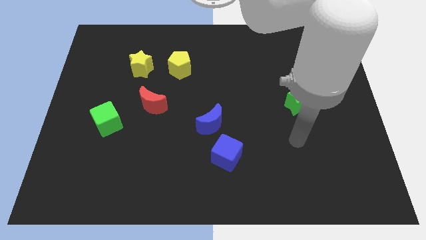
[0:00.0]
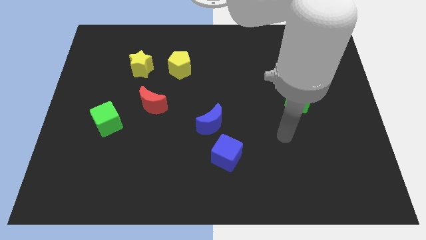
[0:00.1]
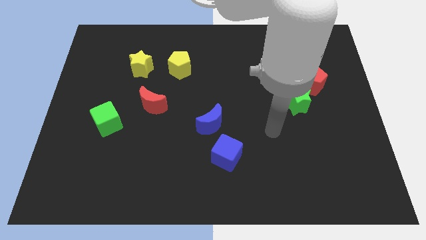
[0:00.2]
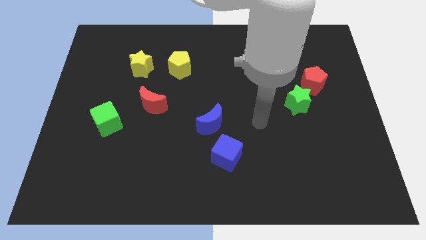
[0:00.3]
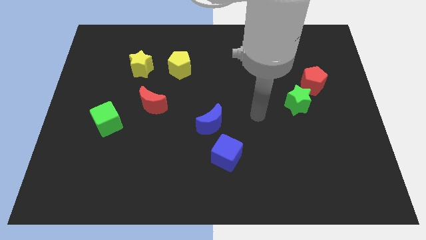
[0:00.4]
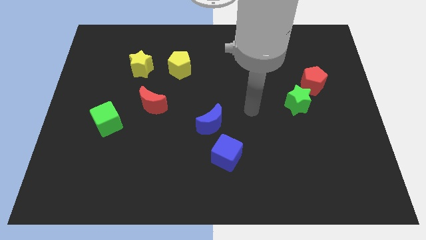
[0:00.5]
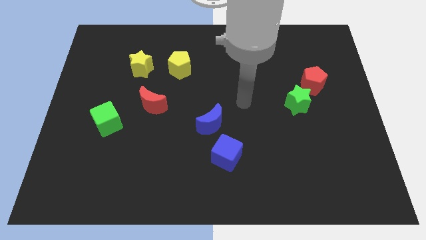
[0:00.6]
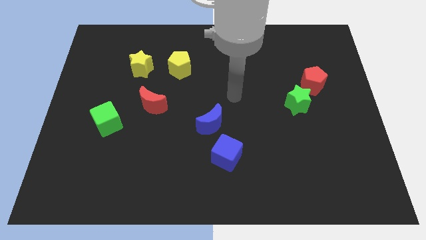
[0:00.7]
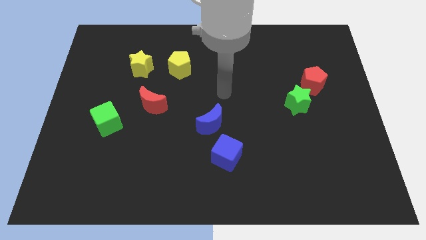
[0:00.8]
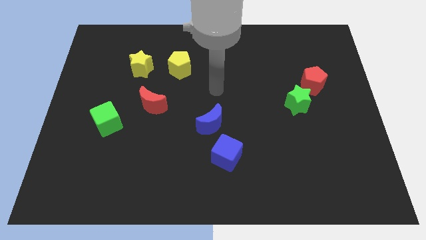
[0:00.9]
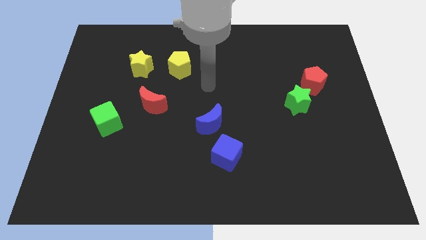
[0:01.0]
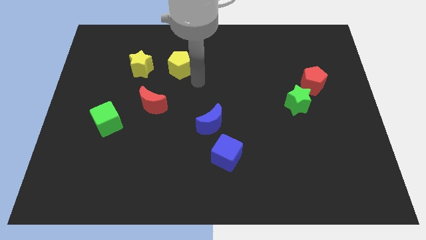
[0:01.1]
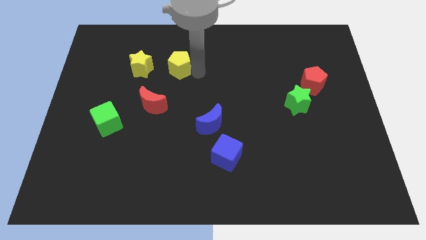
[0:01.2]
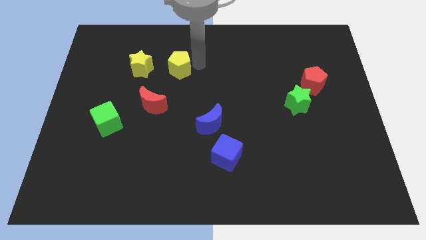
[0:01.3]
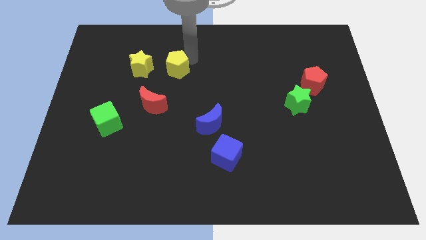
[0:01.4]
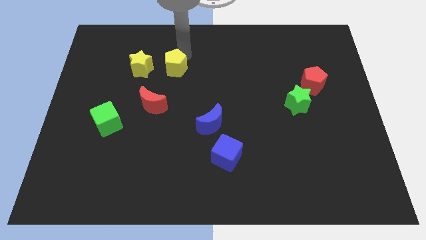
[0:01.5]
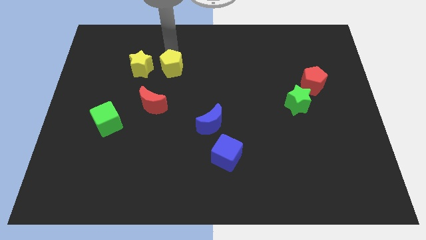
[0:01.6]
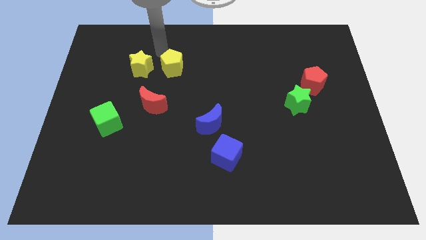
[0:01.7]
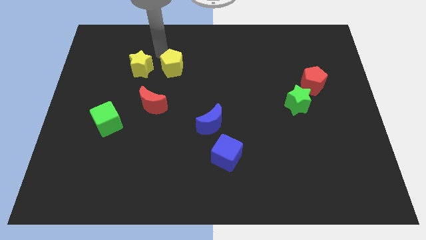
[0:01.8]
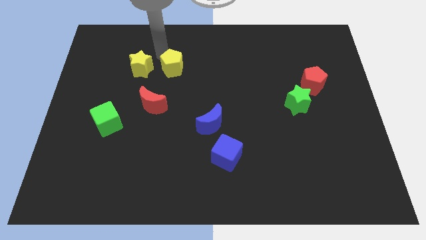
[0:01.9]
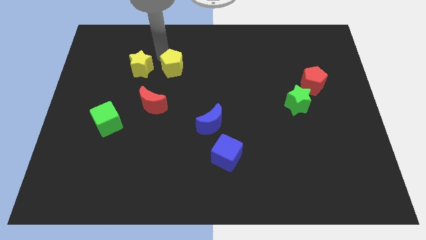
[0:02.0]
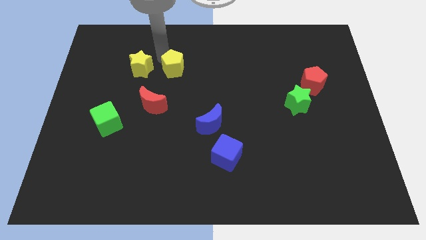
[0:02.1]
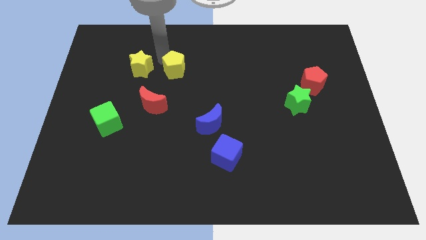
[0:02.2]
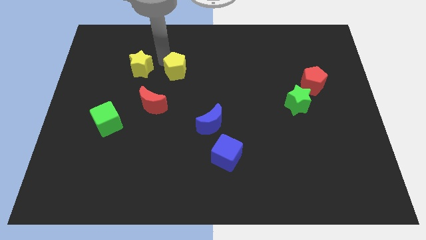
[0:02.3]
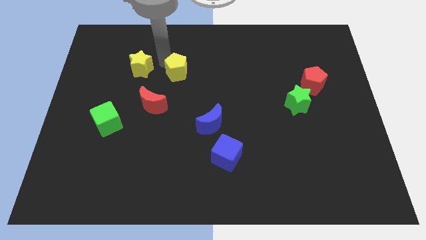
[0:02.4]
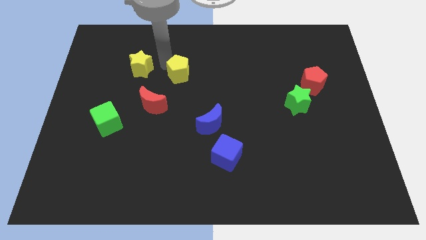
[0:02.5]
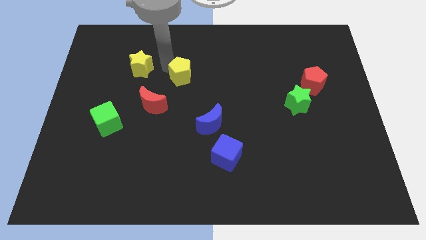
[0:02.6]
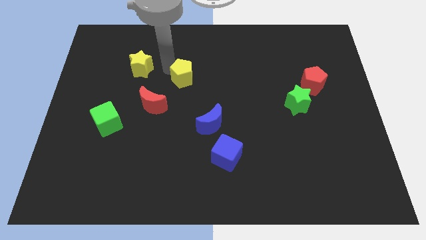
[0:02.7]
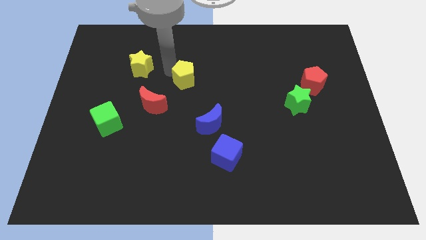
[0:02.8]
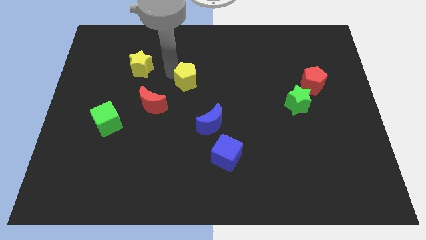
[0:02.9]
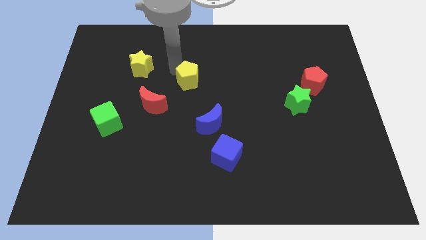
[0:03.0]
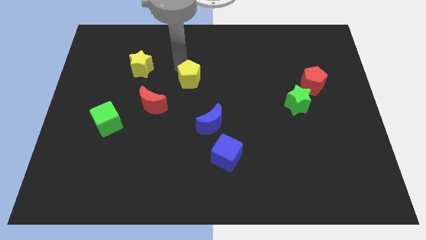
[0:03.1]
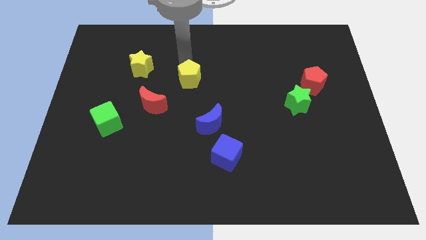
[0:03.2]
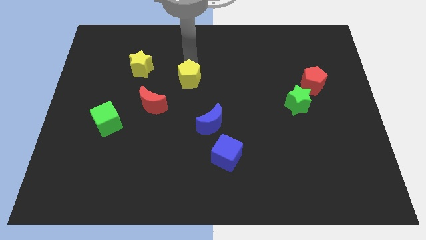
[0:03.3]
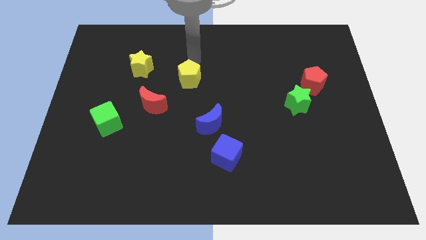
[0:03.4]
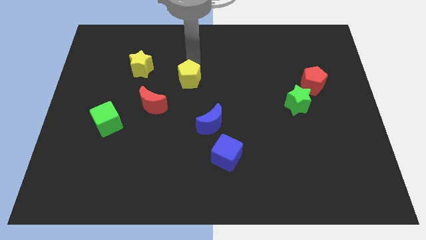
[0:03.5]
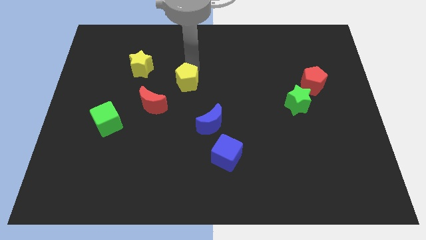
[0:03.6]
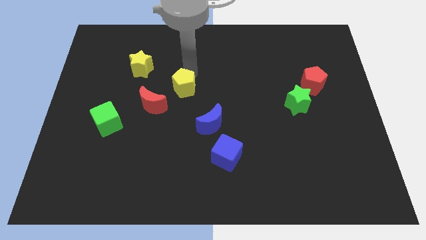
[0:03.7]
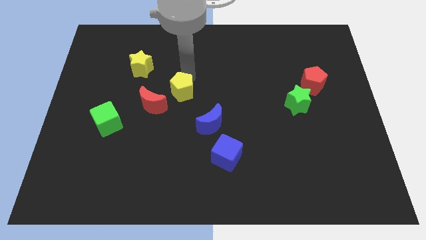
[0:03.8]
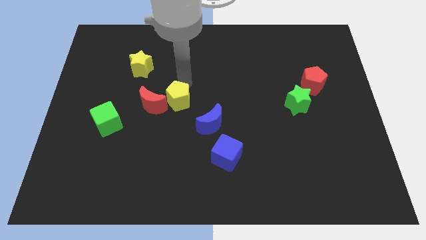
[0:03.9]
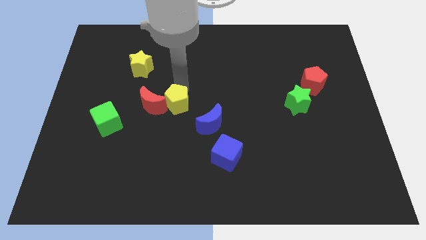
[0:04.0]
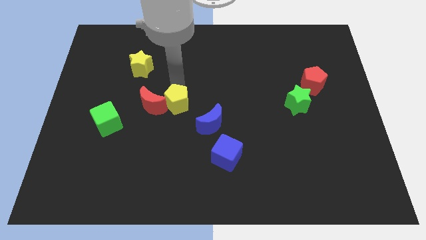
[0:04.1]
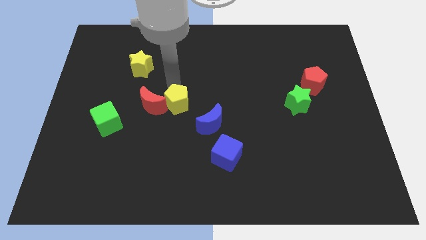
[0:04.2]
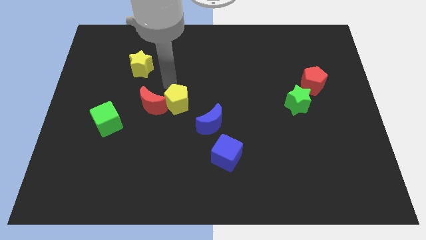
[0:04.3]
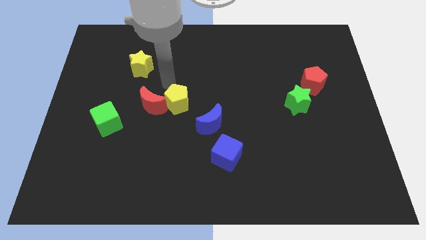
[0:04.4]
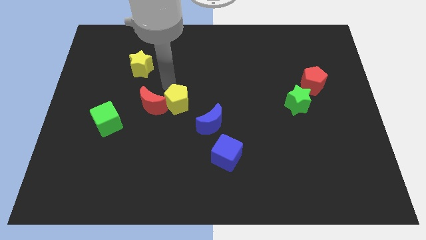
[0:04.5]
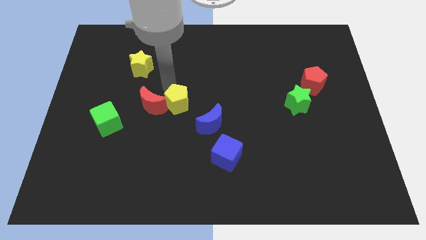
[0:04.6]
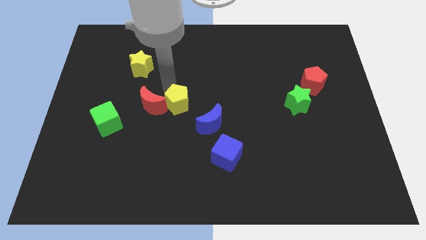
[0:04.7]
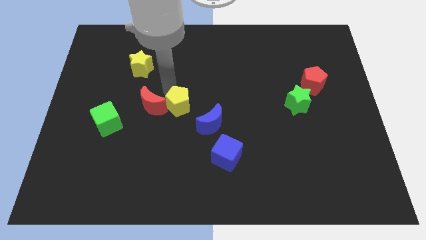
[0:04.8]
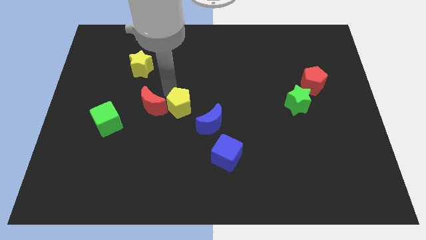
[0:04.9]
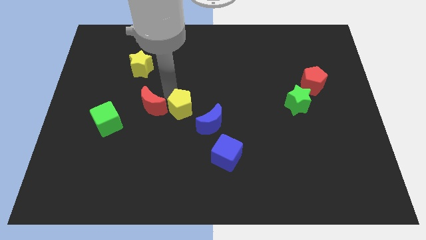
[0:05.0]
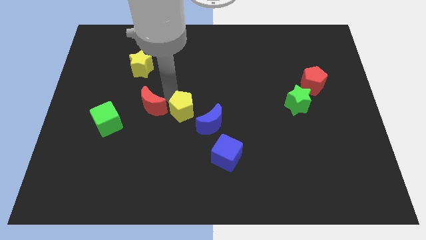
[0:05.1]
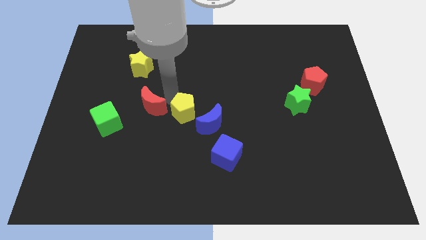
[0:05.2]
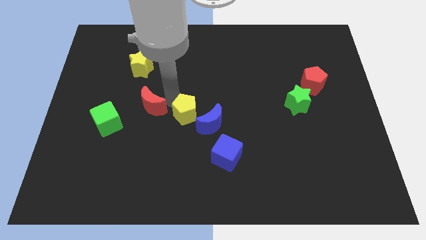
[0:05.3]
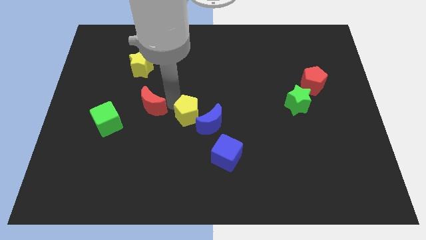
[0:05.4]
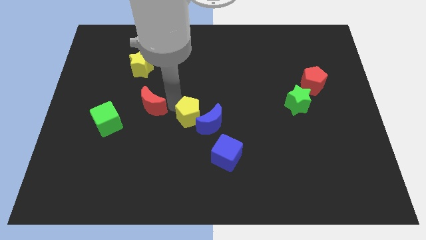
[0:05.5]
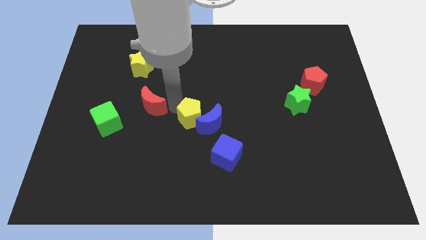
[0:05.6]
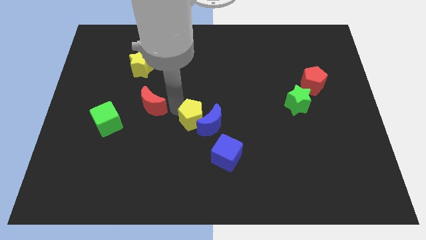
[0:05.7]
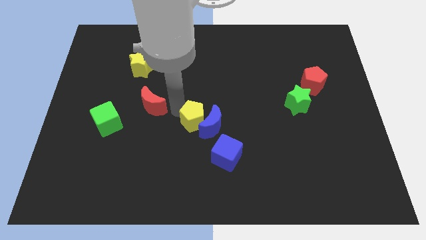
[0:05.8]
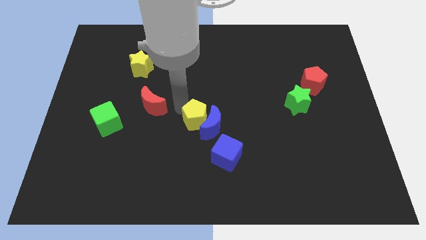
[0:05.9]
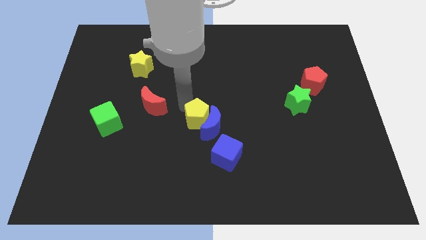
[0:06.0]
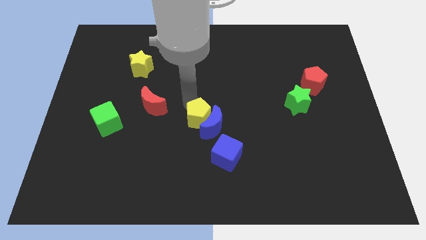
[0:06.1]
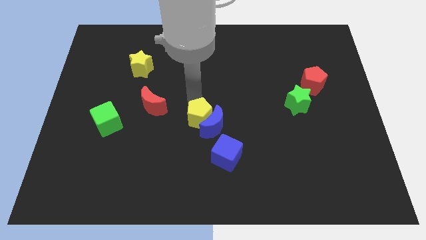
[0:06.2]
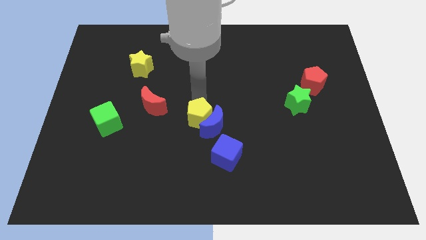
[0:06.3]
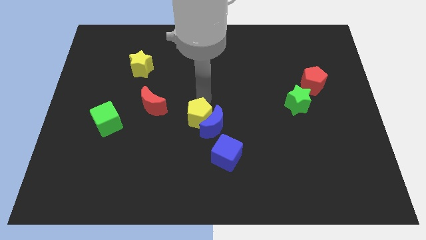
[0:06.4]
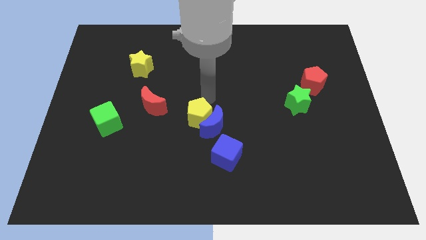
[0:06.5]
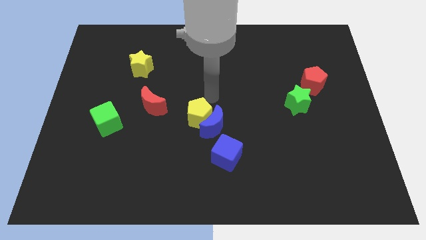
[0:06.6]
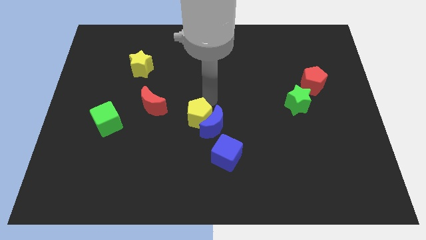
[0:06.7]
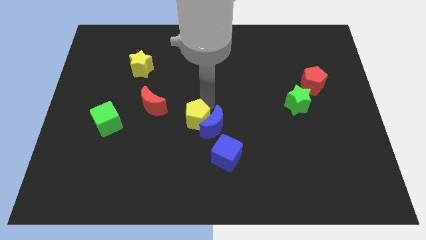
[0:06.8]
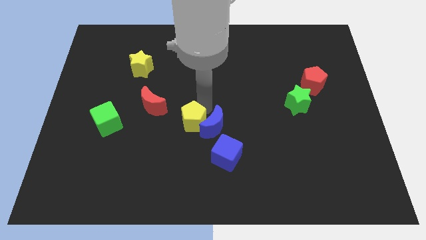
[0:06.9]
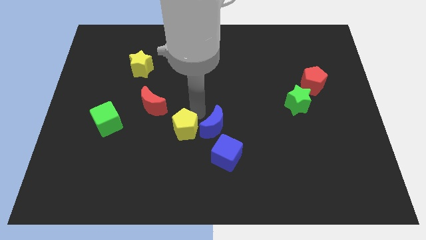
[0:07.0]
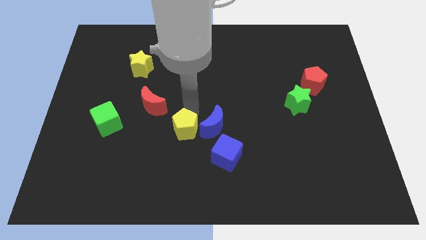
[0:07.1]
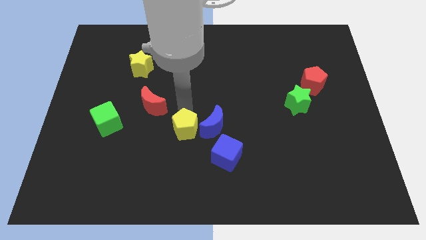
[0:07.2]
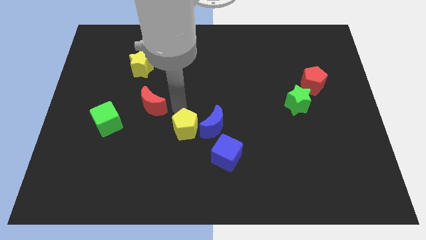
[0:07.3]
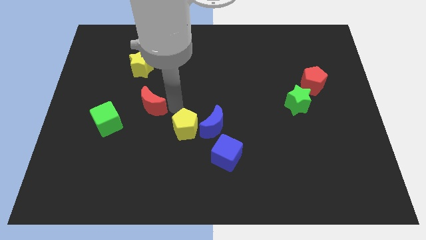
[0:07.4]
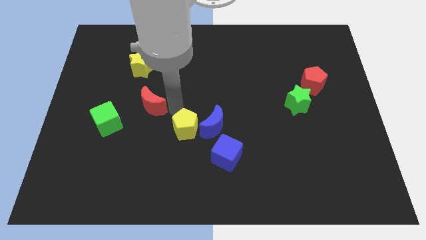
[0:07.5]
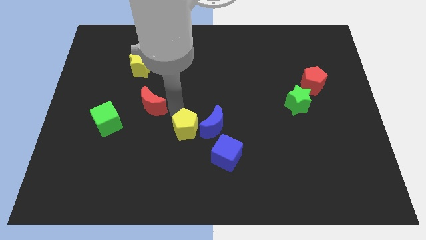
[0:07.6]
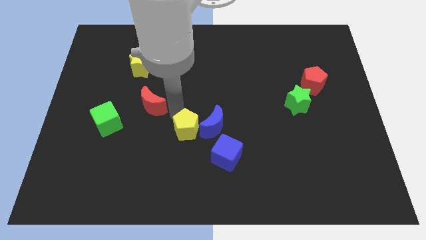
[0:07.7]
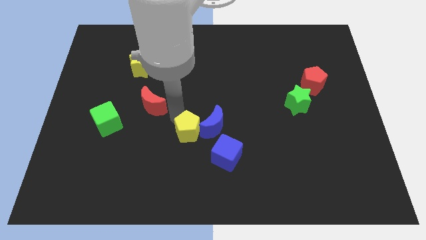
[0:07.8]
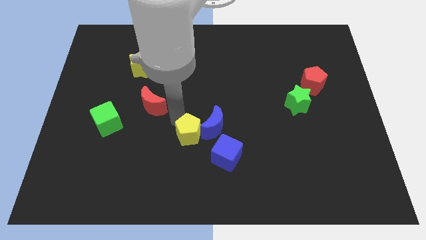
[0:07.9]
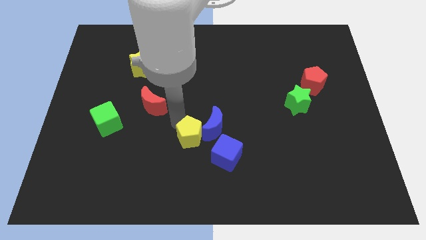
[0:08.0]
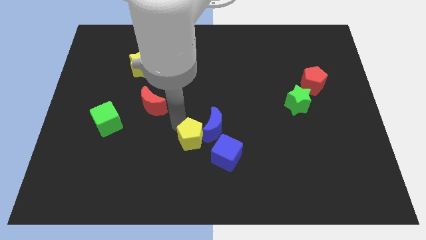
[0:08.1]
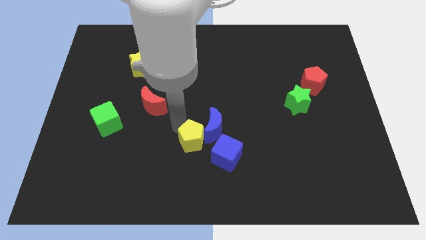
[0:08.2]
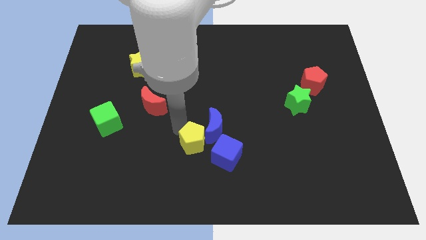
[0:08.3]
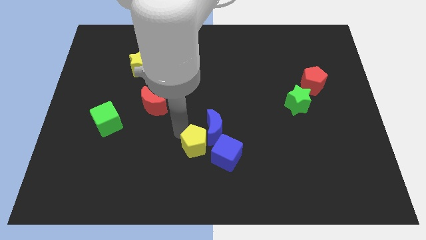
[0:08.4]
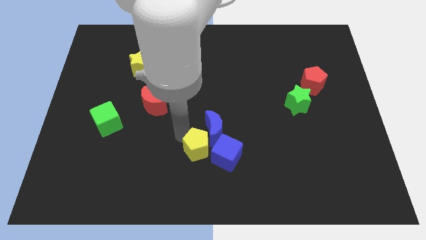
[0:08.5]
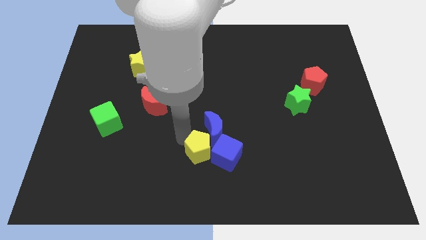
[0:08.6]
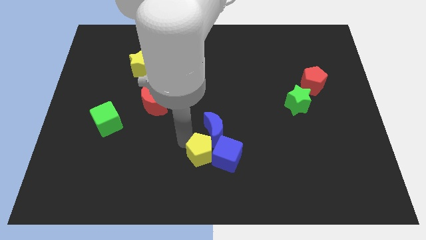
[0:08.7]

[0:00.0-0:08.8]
put the yellow pentagon to the bottom left side of the blue cube
